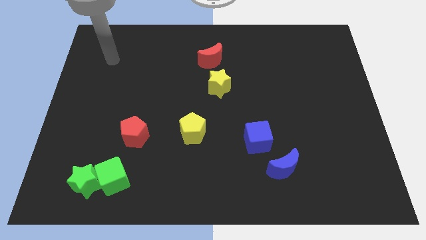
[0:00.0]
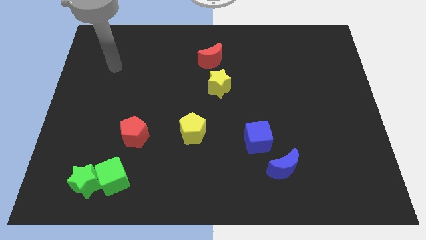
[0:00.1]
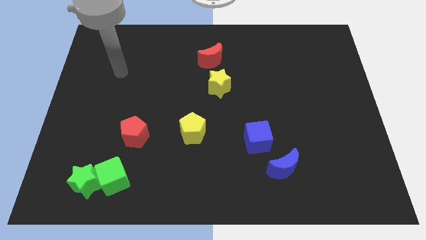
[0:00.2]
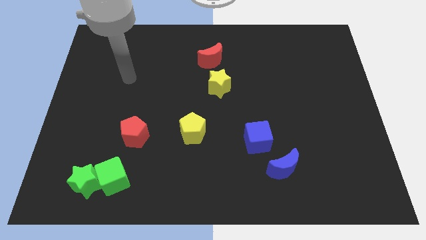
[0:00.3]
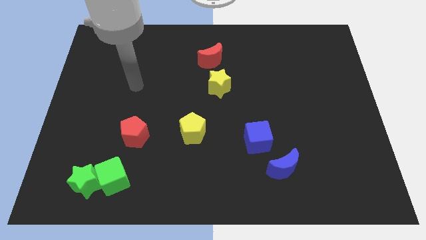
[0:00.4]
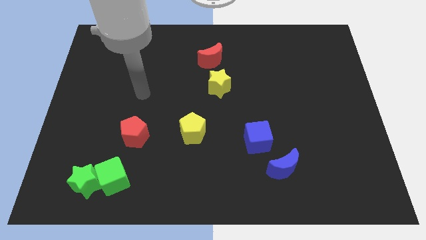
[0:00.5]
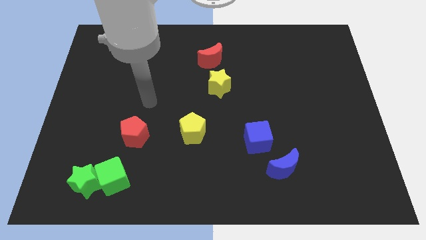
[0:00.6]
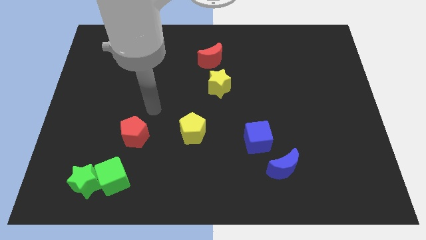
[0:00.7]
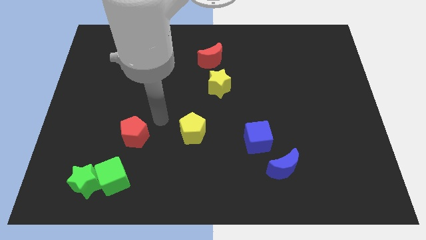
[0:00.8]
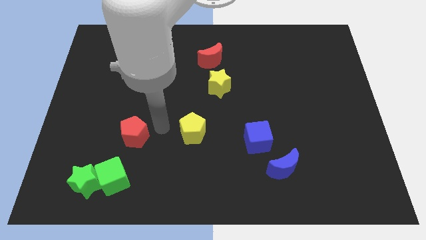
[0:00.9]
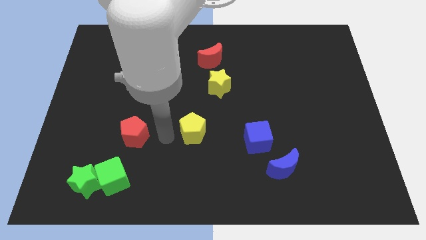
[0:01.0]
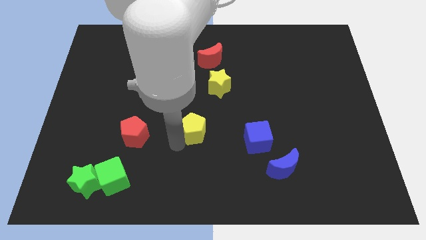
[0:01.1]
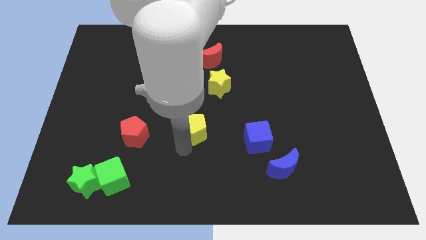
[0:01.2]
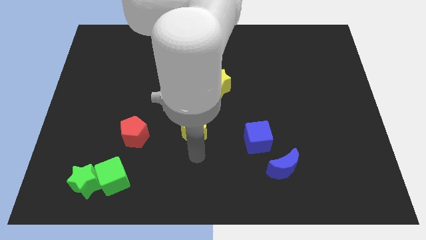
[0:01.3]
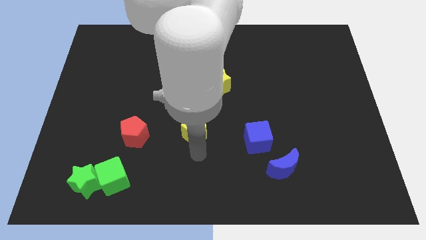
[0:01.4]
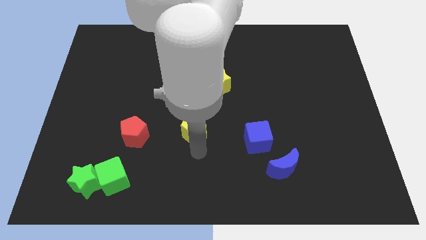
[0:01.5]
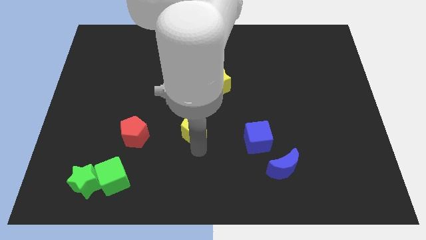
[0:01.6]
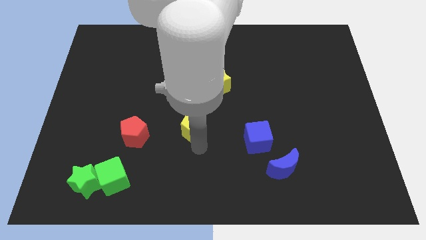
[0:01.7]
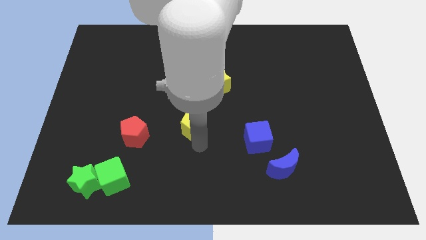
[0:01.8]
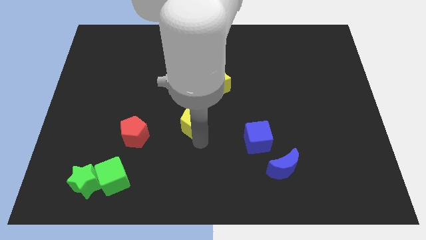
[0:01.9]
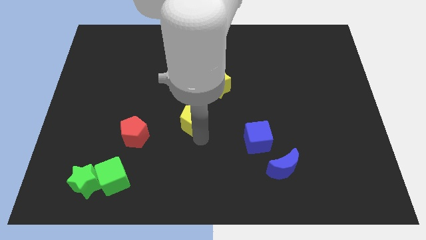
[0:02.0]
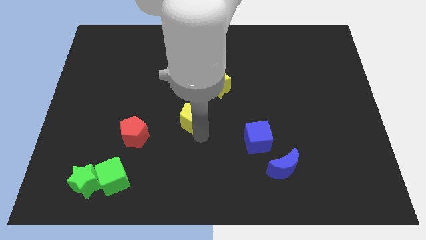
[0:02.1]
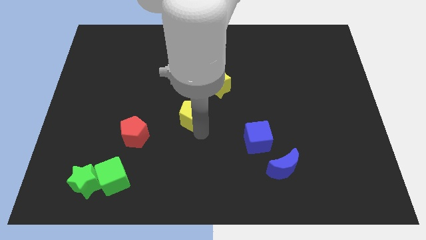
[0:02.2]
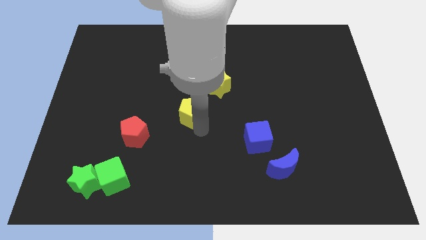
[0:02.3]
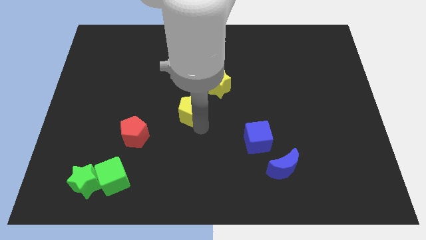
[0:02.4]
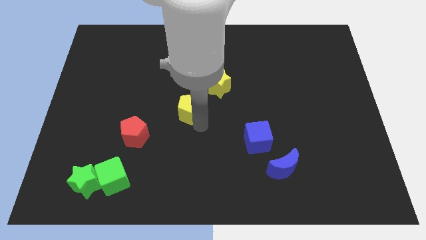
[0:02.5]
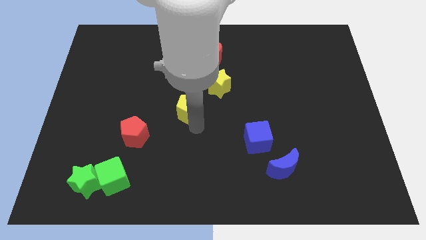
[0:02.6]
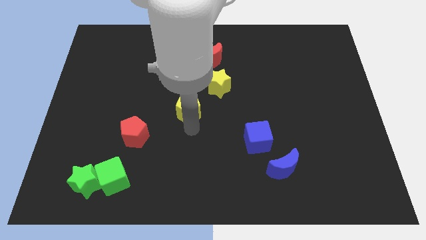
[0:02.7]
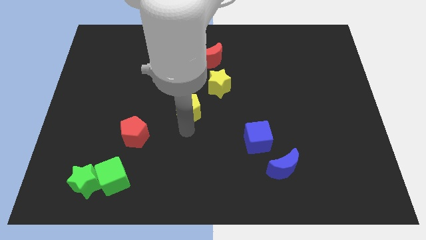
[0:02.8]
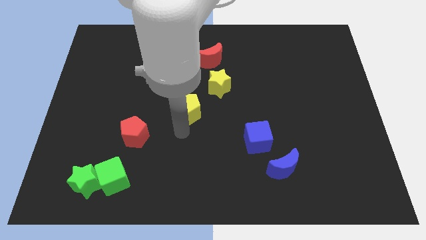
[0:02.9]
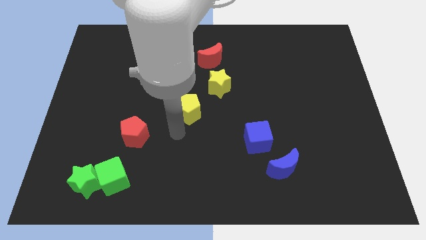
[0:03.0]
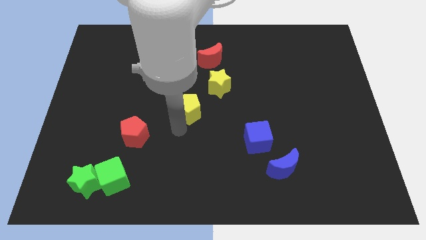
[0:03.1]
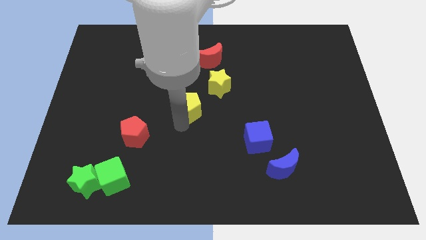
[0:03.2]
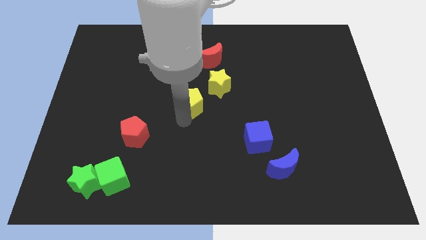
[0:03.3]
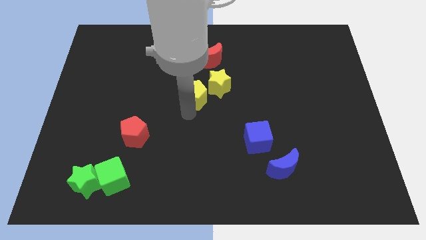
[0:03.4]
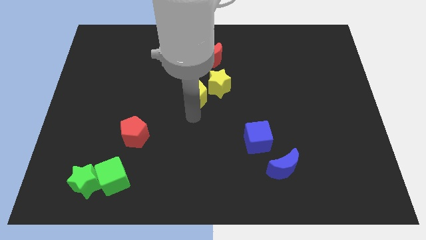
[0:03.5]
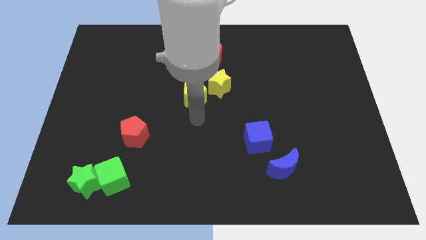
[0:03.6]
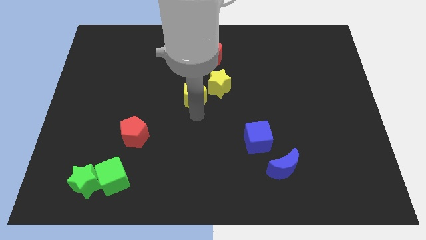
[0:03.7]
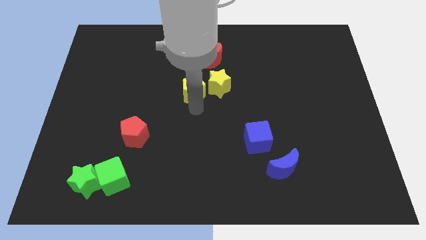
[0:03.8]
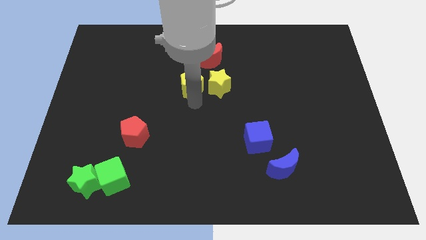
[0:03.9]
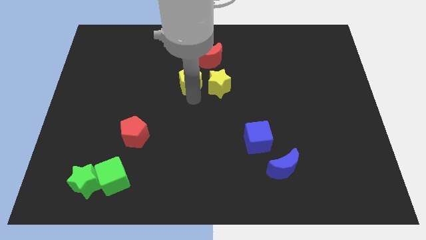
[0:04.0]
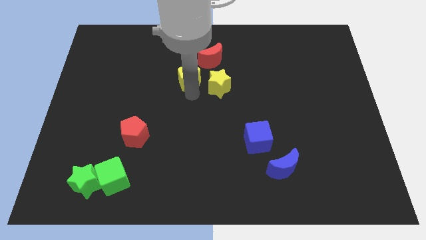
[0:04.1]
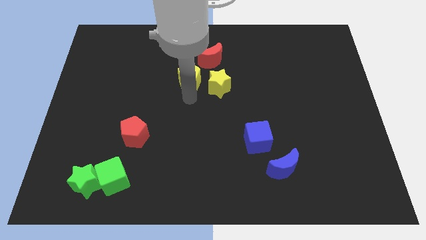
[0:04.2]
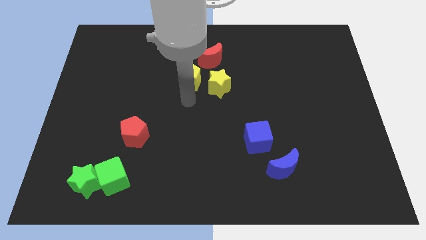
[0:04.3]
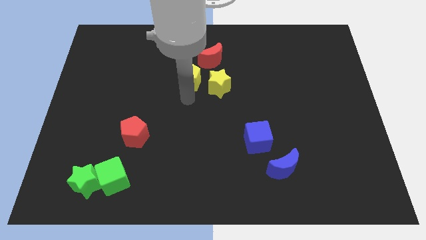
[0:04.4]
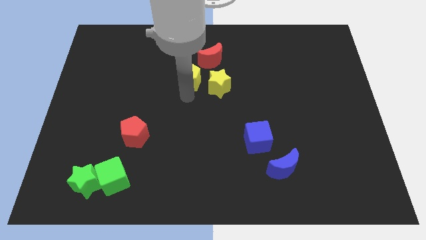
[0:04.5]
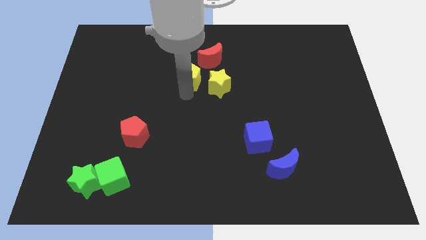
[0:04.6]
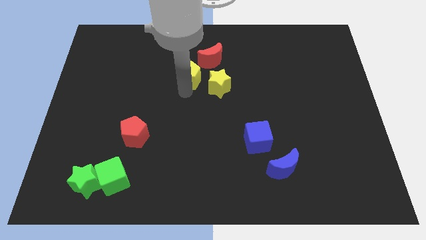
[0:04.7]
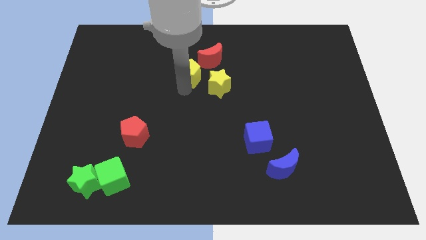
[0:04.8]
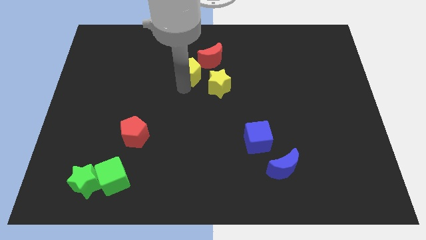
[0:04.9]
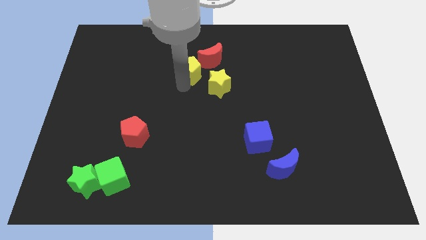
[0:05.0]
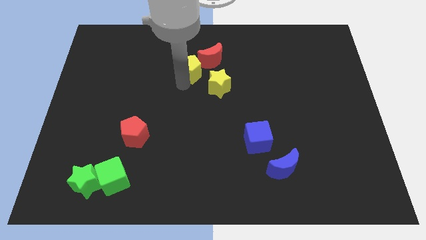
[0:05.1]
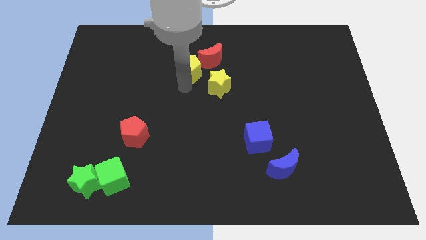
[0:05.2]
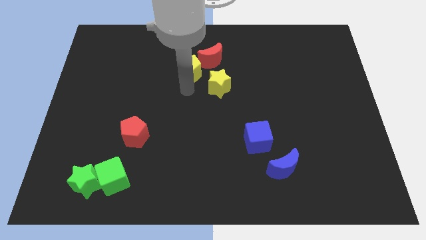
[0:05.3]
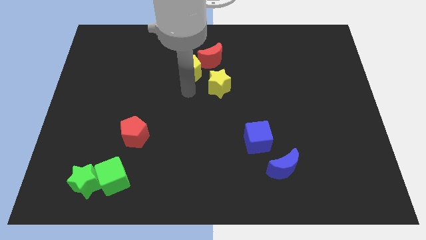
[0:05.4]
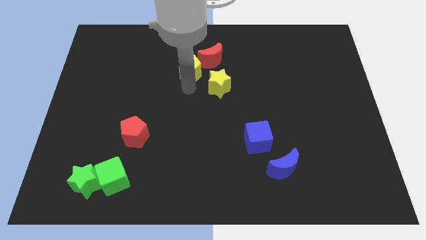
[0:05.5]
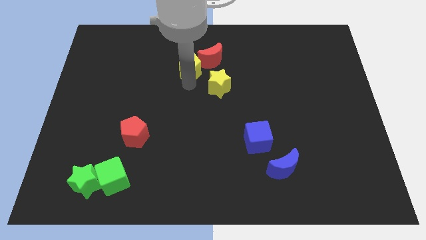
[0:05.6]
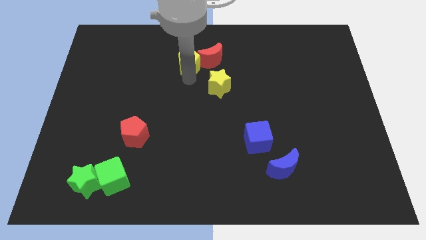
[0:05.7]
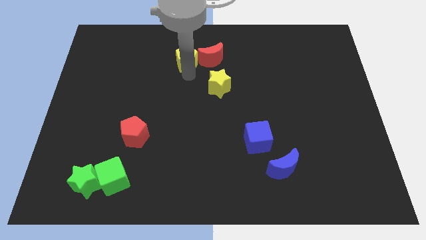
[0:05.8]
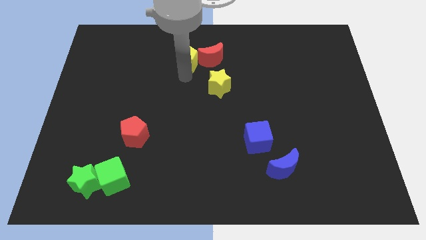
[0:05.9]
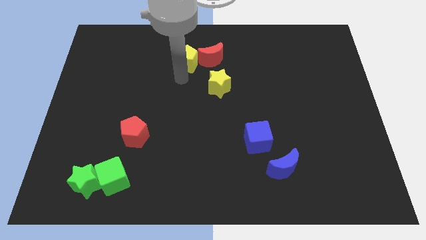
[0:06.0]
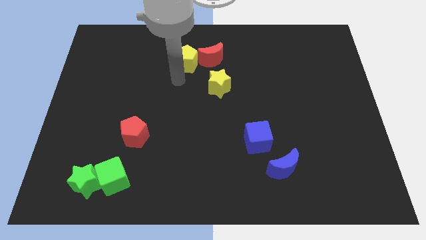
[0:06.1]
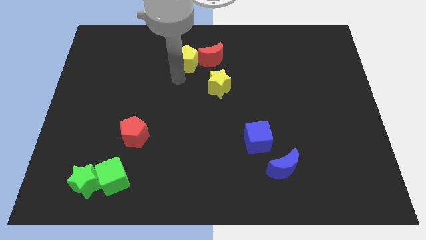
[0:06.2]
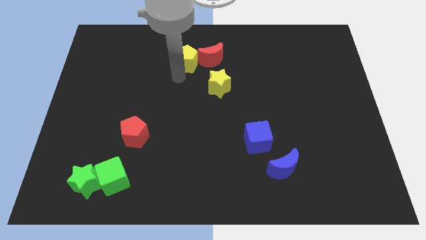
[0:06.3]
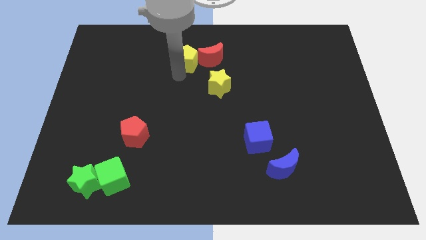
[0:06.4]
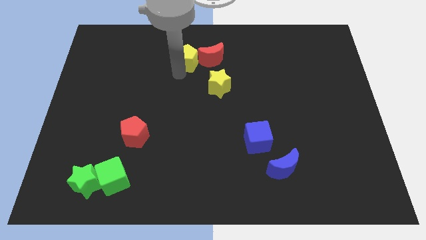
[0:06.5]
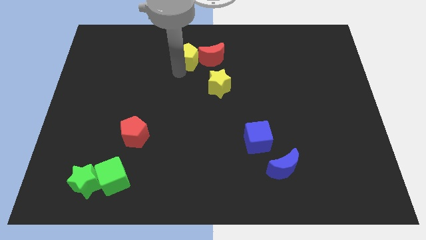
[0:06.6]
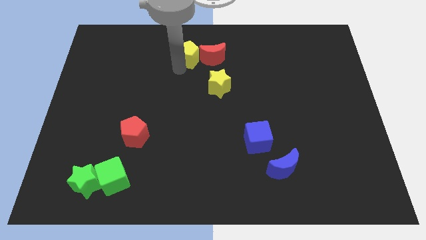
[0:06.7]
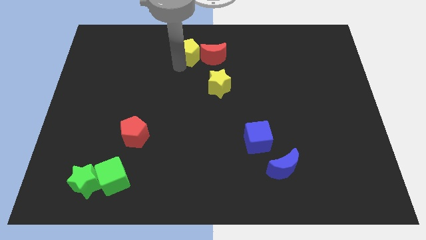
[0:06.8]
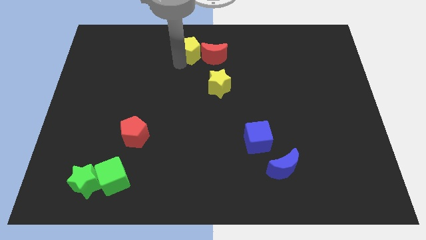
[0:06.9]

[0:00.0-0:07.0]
move the yellow pentagon to the towards your base
